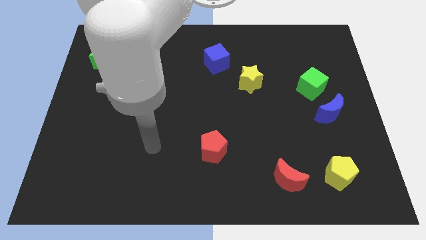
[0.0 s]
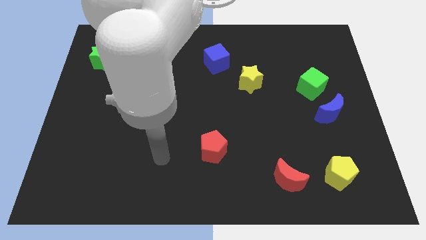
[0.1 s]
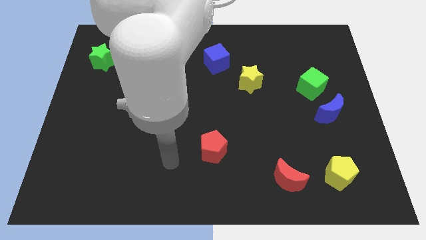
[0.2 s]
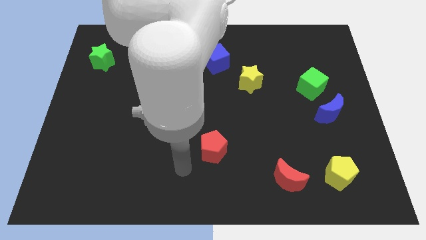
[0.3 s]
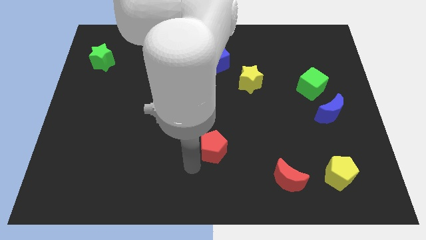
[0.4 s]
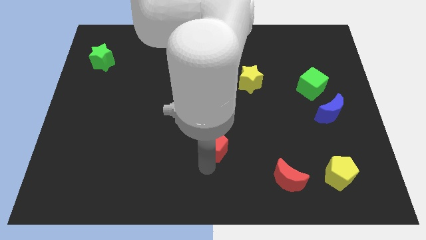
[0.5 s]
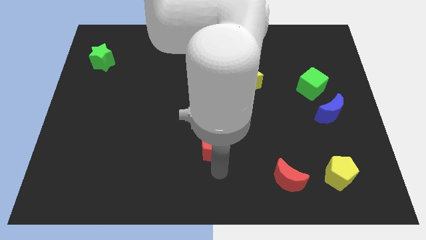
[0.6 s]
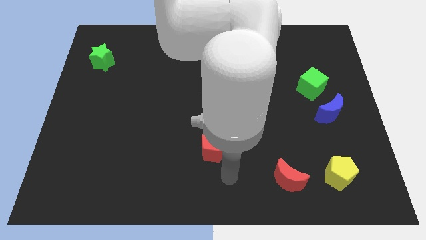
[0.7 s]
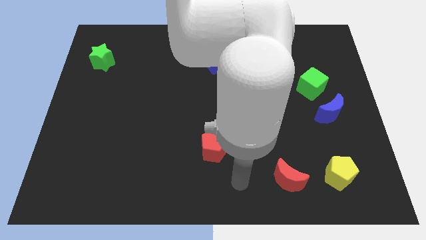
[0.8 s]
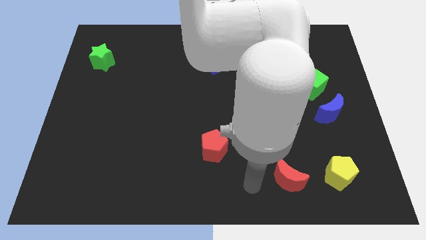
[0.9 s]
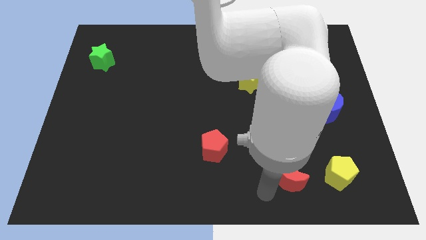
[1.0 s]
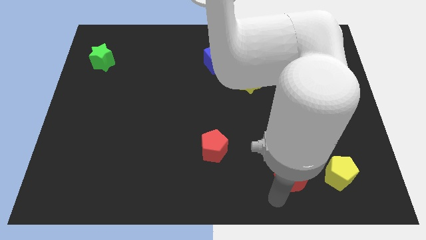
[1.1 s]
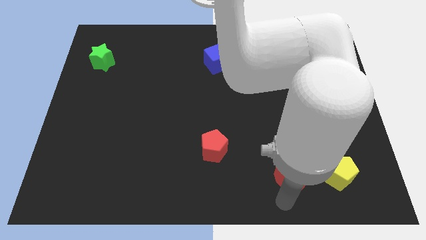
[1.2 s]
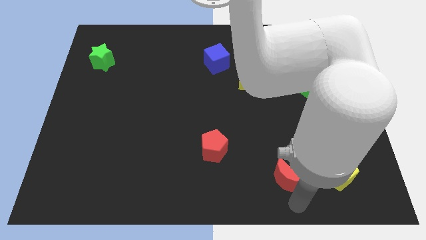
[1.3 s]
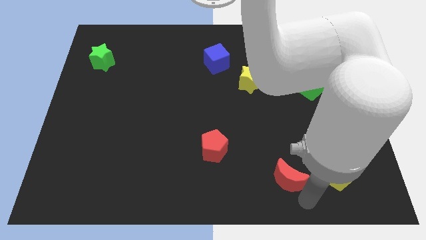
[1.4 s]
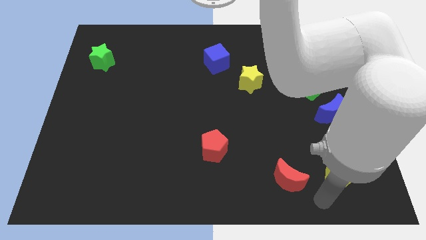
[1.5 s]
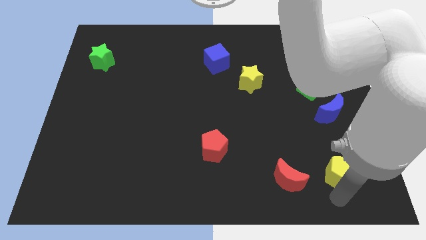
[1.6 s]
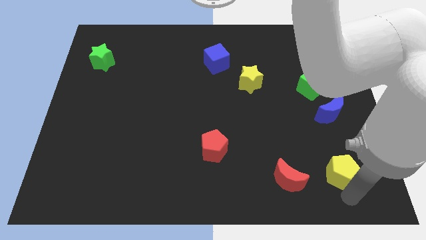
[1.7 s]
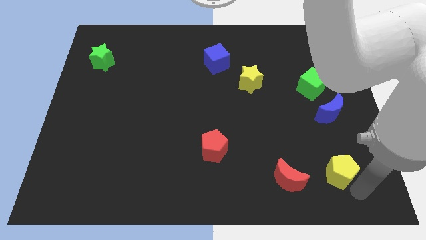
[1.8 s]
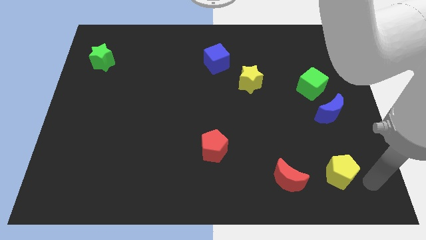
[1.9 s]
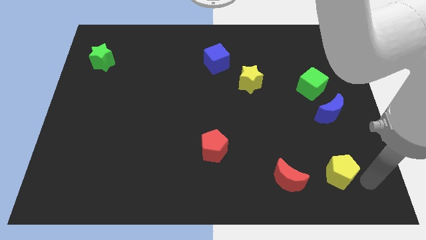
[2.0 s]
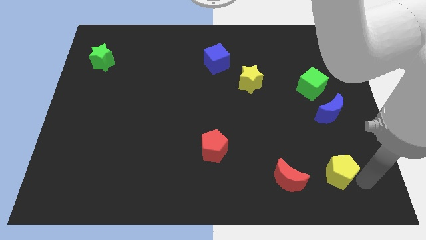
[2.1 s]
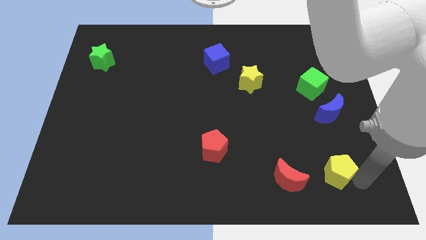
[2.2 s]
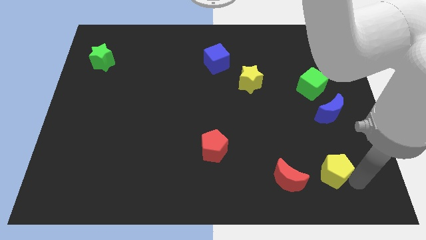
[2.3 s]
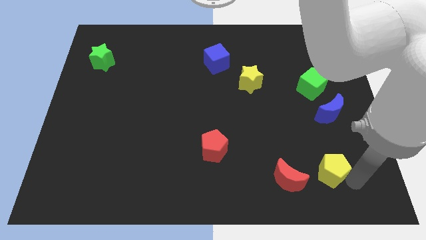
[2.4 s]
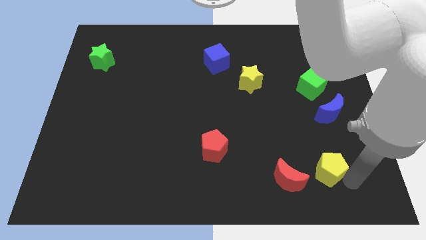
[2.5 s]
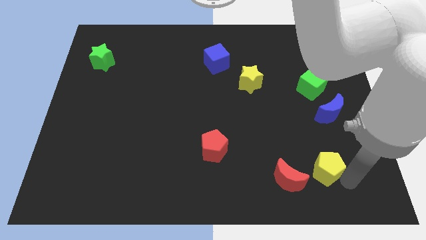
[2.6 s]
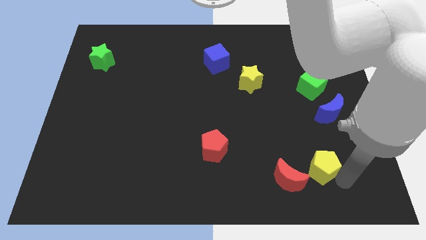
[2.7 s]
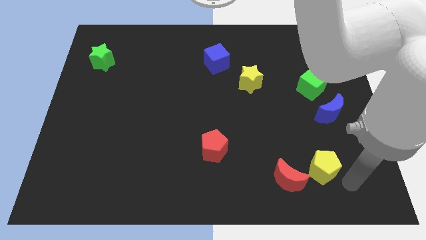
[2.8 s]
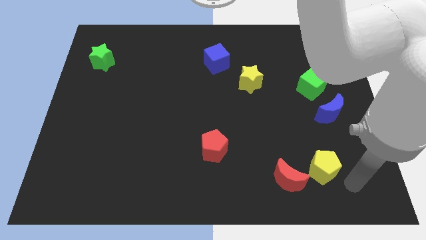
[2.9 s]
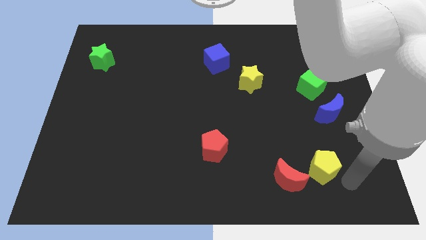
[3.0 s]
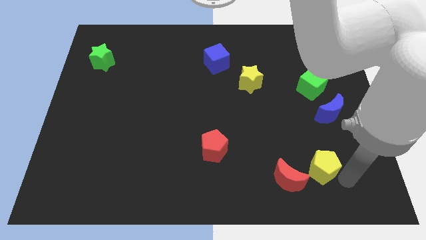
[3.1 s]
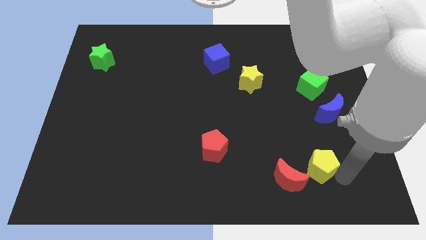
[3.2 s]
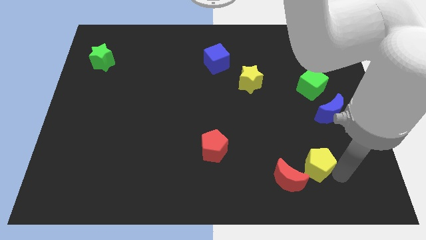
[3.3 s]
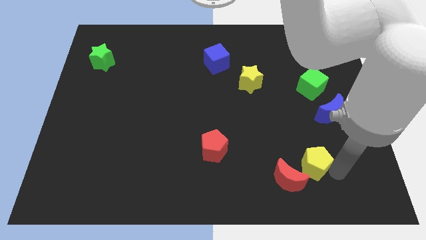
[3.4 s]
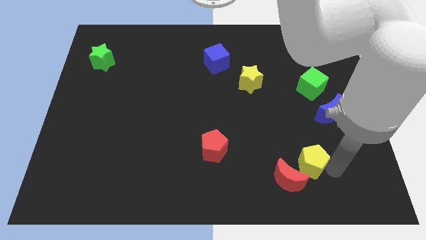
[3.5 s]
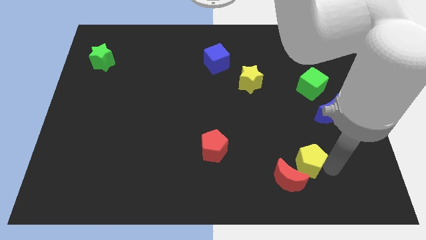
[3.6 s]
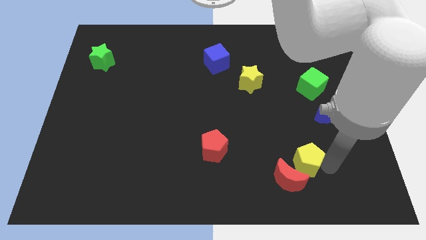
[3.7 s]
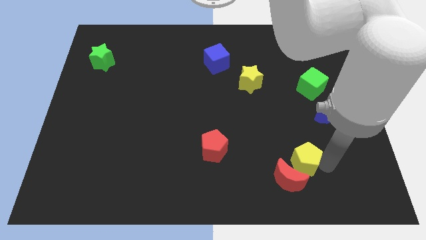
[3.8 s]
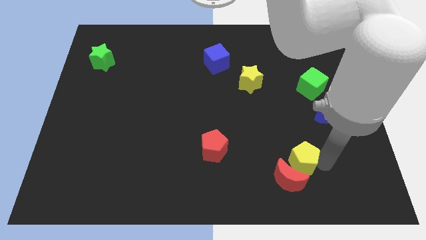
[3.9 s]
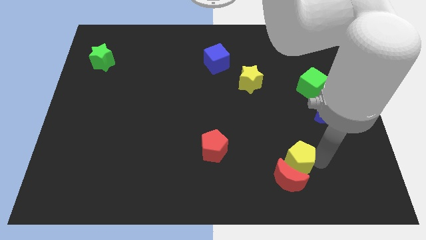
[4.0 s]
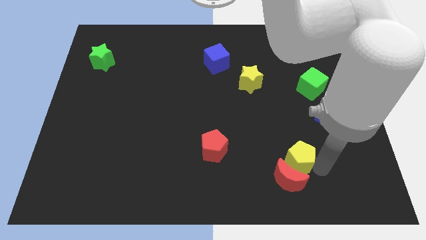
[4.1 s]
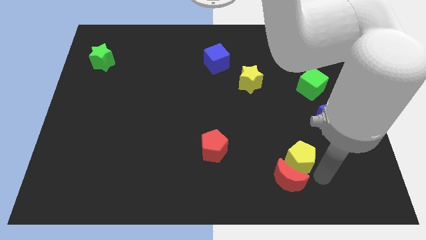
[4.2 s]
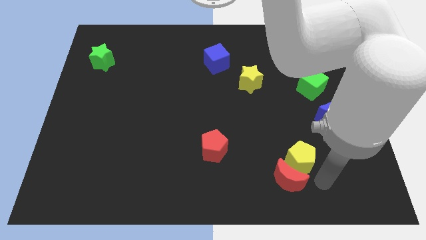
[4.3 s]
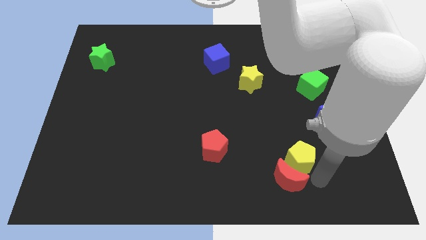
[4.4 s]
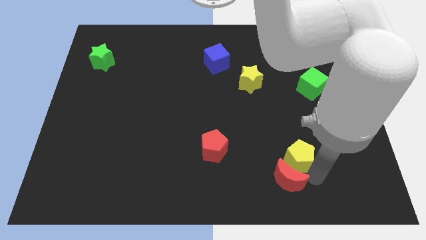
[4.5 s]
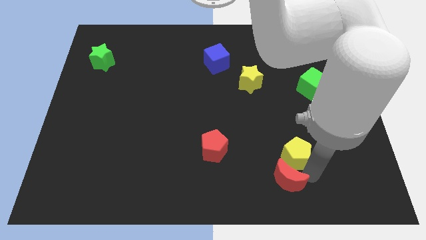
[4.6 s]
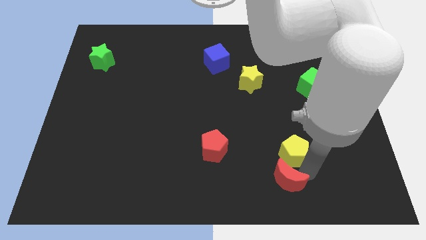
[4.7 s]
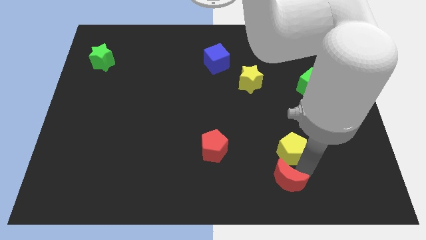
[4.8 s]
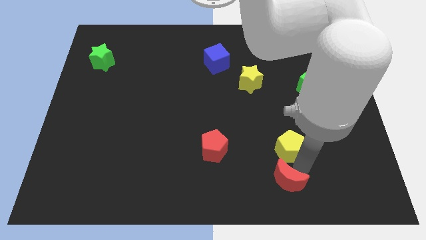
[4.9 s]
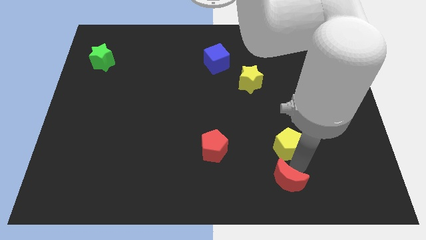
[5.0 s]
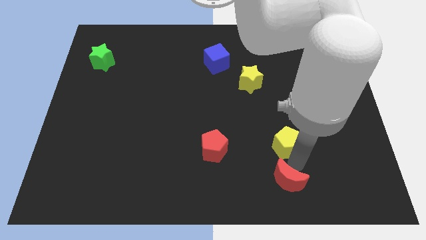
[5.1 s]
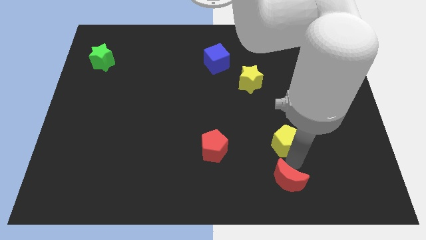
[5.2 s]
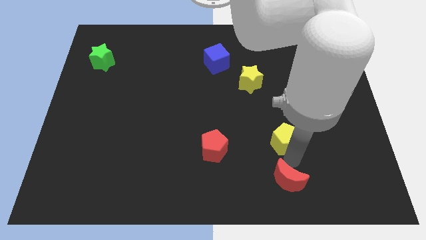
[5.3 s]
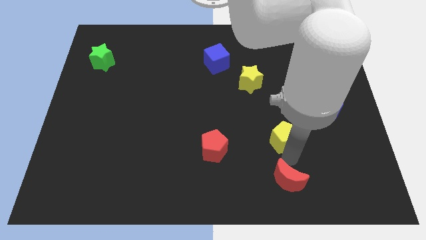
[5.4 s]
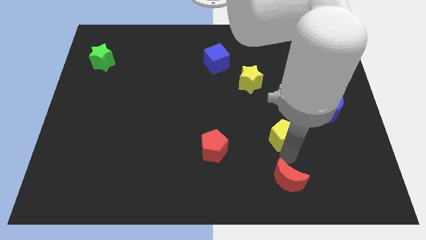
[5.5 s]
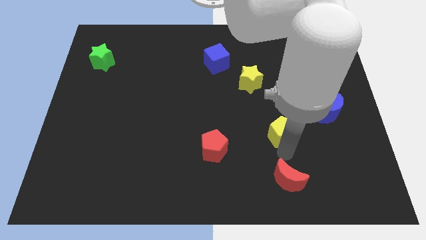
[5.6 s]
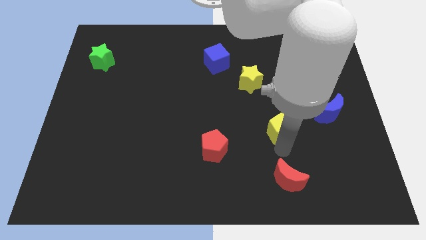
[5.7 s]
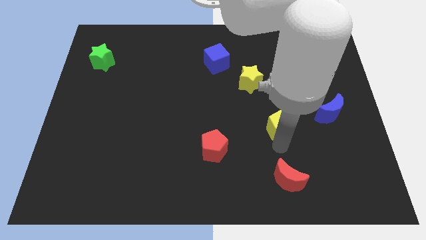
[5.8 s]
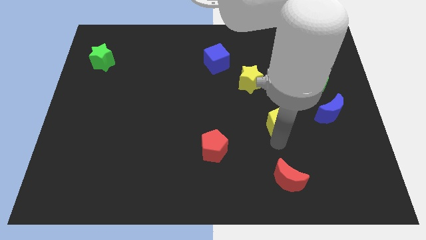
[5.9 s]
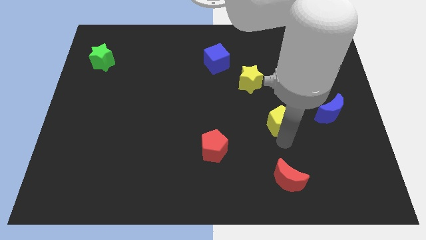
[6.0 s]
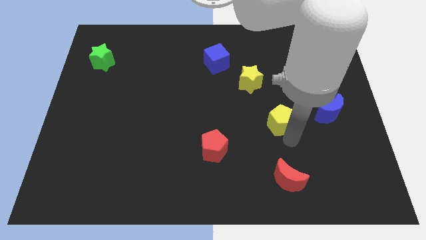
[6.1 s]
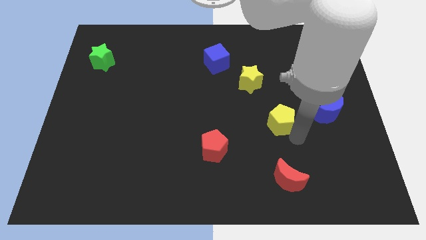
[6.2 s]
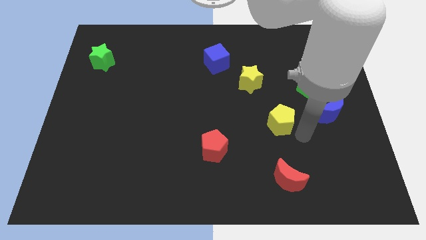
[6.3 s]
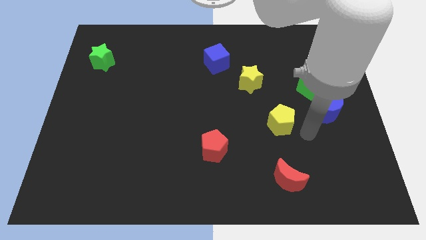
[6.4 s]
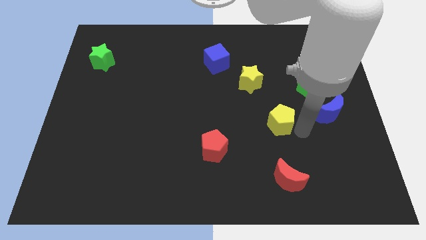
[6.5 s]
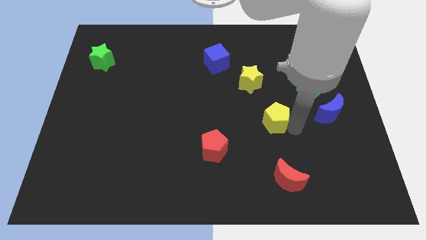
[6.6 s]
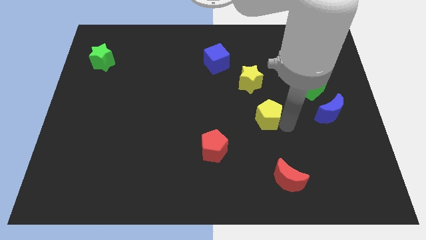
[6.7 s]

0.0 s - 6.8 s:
move the yellow pentagon up and left diagonally

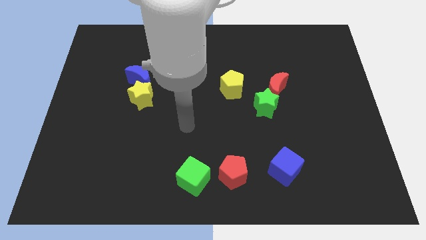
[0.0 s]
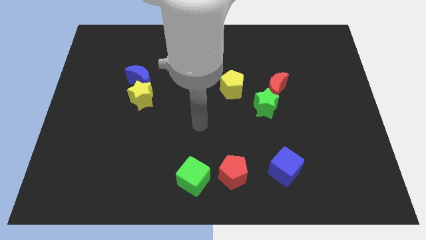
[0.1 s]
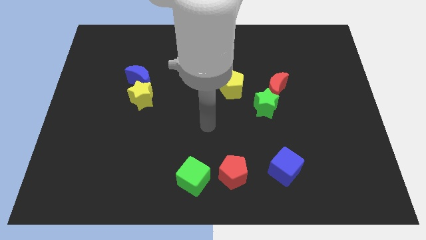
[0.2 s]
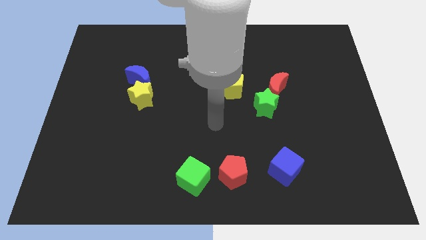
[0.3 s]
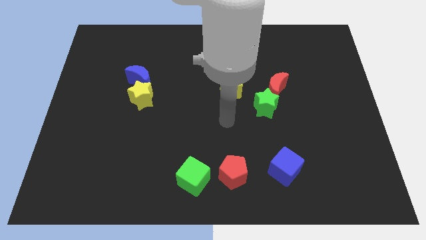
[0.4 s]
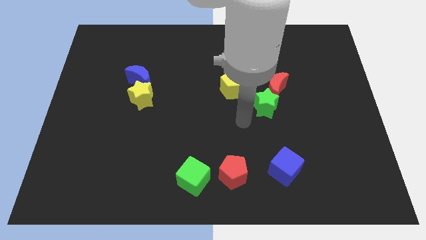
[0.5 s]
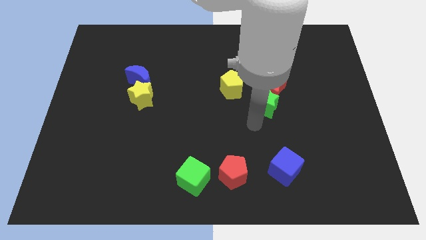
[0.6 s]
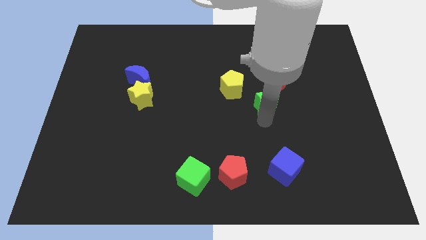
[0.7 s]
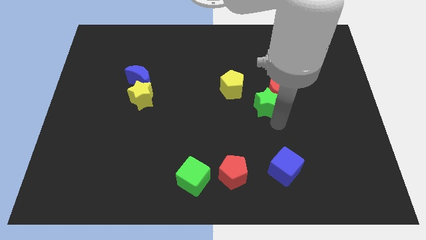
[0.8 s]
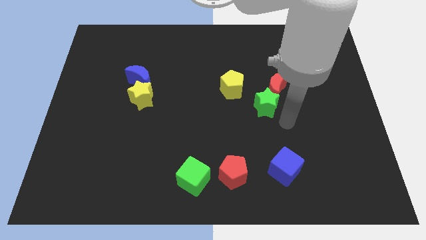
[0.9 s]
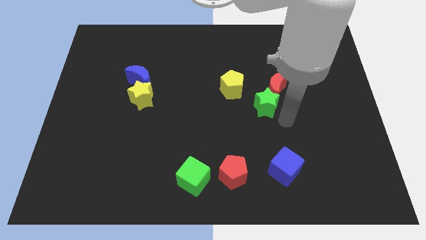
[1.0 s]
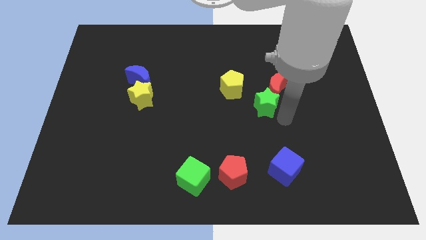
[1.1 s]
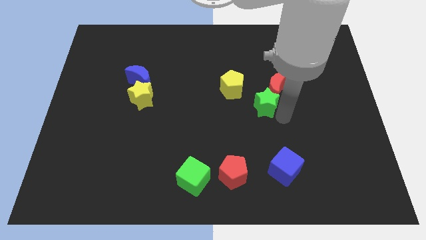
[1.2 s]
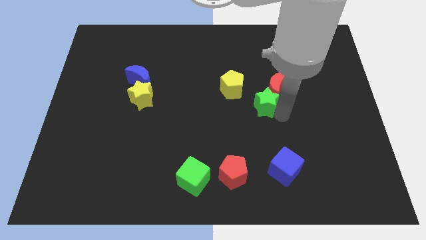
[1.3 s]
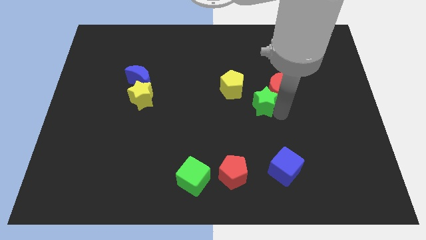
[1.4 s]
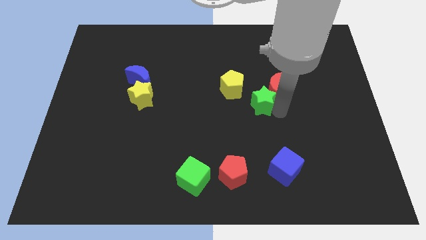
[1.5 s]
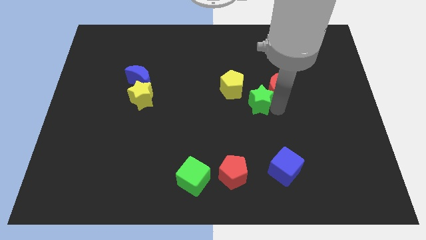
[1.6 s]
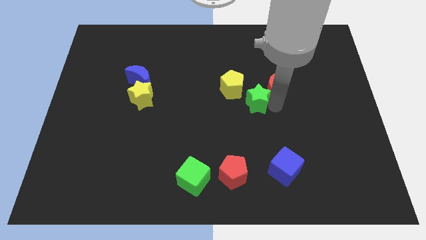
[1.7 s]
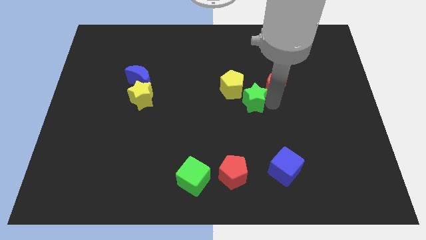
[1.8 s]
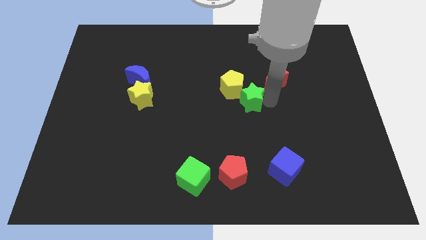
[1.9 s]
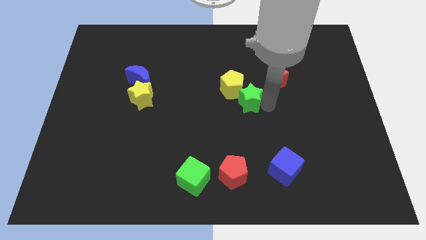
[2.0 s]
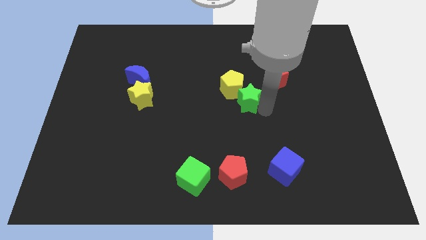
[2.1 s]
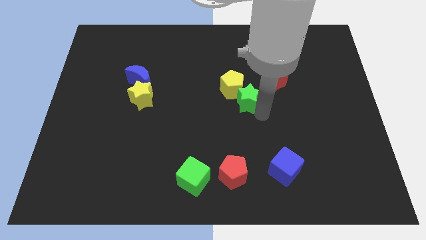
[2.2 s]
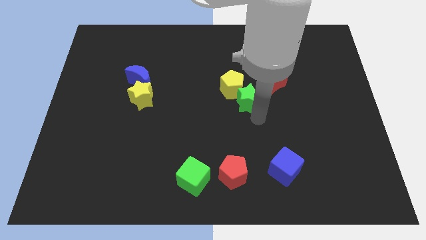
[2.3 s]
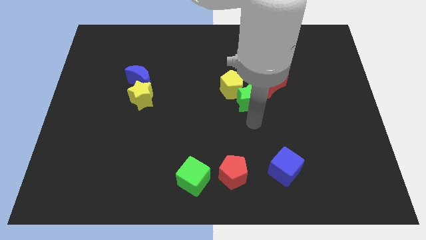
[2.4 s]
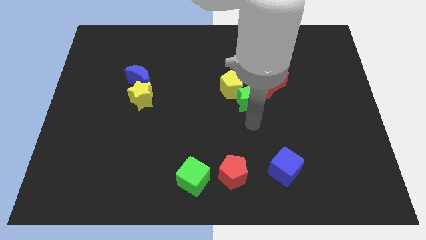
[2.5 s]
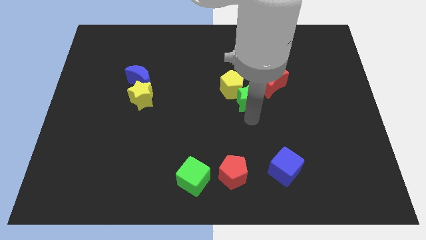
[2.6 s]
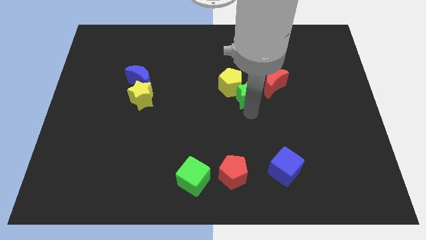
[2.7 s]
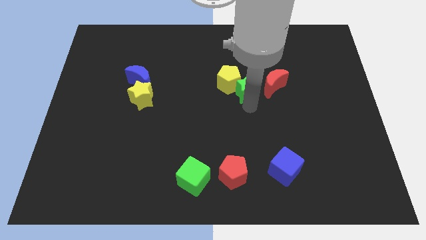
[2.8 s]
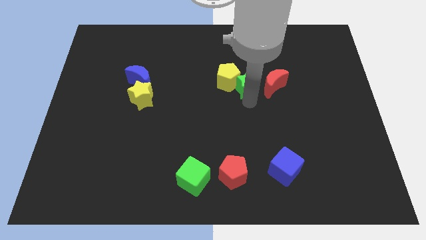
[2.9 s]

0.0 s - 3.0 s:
move the green star up and then left a little
